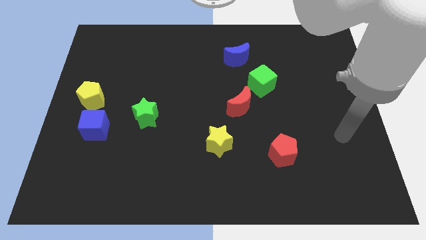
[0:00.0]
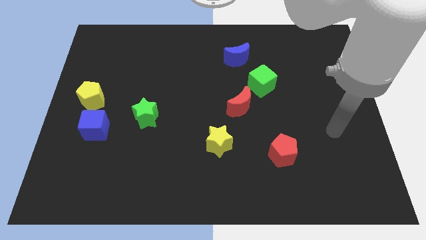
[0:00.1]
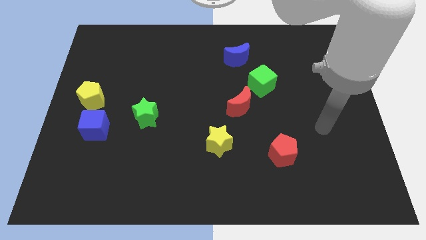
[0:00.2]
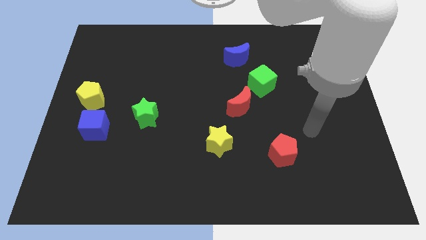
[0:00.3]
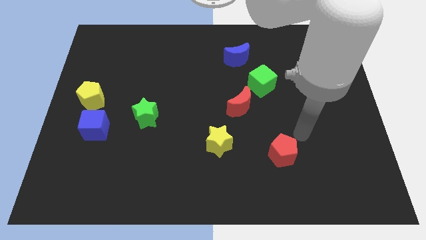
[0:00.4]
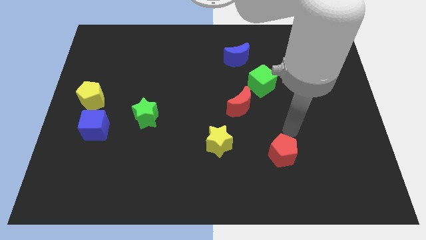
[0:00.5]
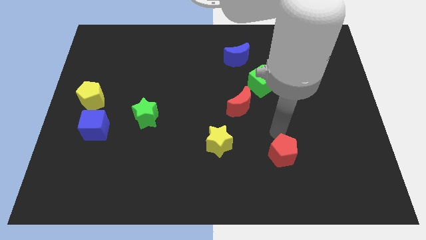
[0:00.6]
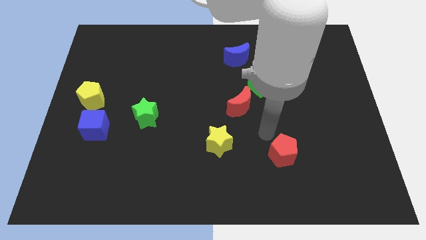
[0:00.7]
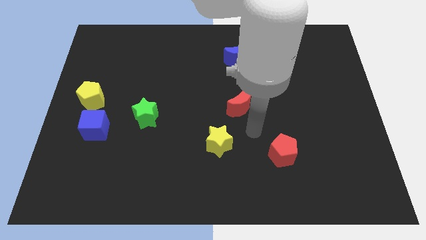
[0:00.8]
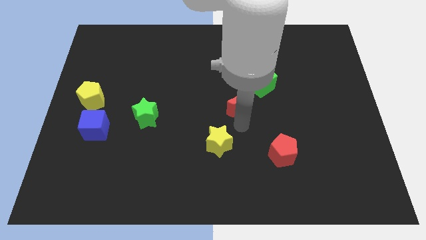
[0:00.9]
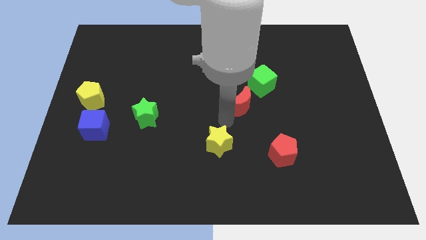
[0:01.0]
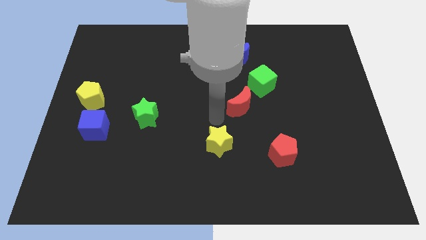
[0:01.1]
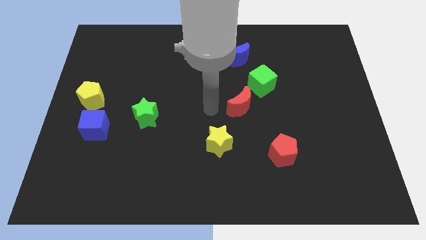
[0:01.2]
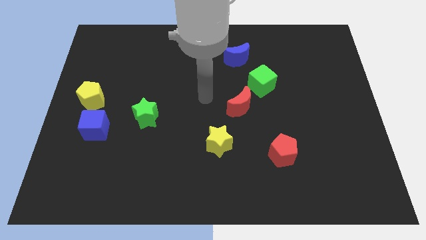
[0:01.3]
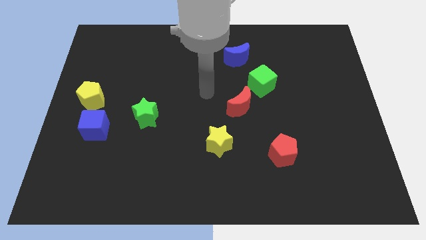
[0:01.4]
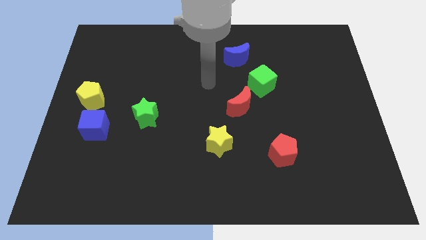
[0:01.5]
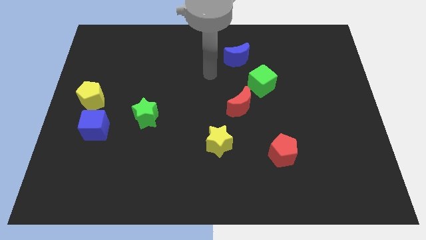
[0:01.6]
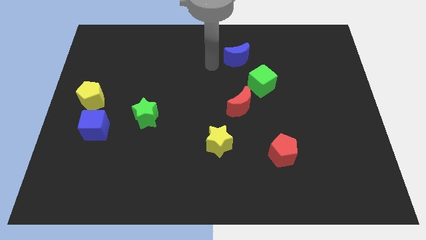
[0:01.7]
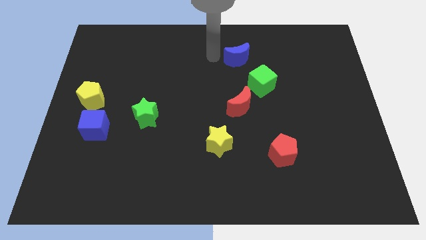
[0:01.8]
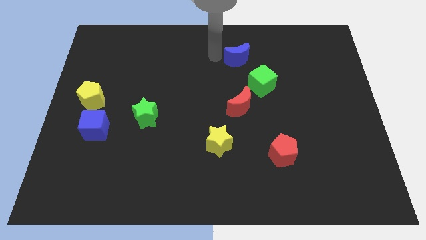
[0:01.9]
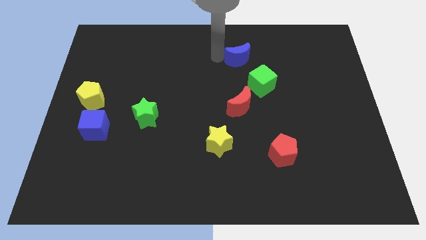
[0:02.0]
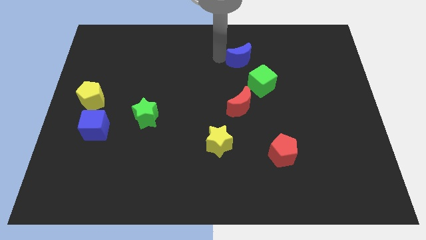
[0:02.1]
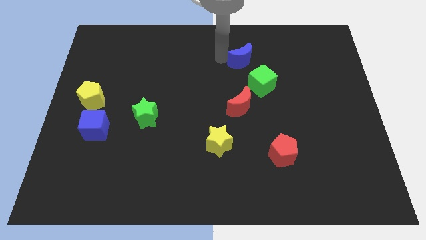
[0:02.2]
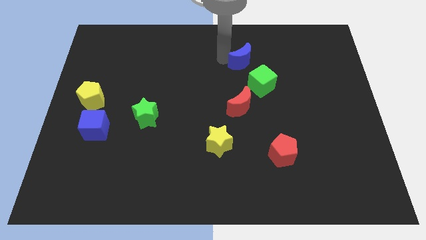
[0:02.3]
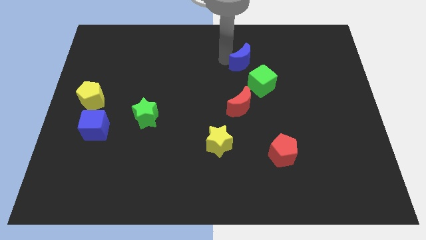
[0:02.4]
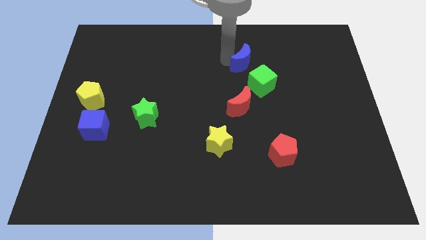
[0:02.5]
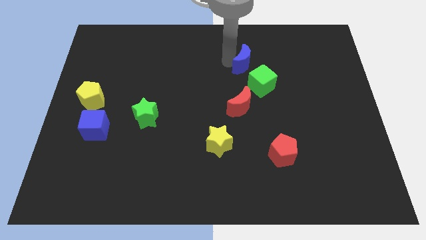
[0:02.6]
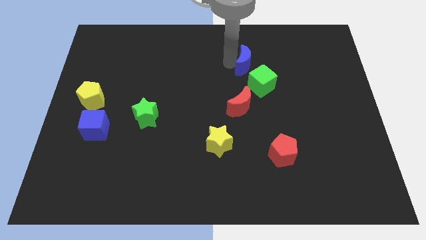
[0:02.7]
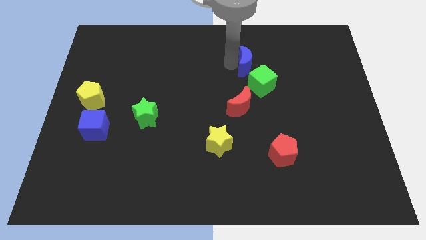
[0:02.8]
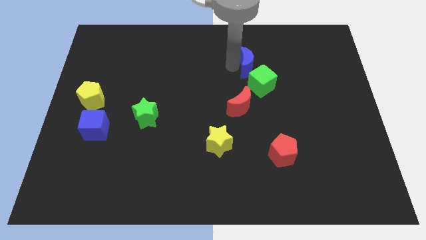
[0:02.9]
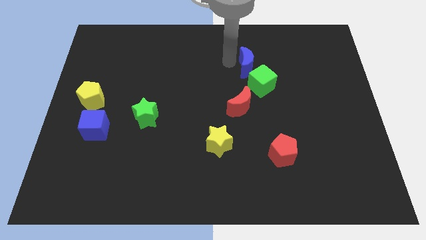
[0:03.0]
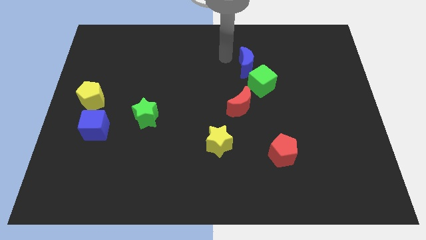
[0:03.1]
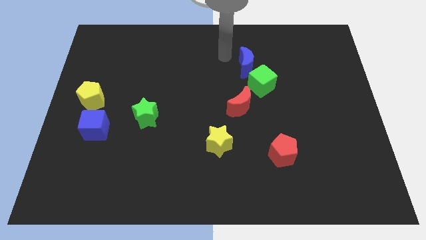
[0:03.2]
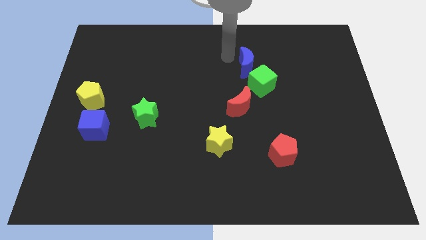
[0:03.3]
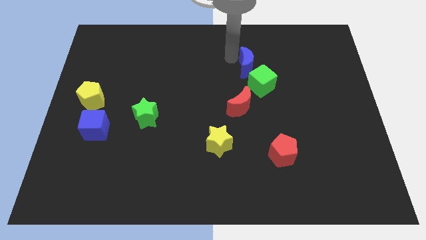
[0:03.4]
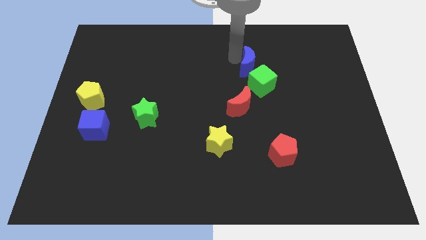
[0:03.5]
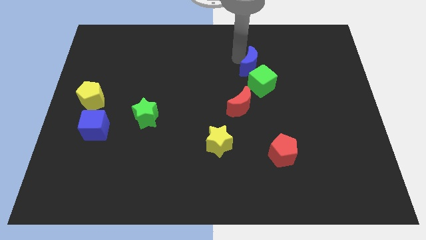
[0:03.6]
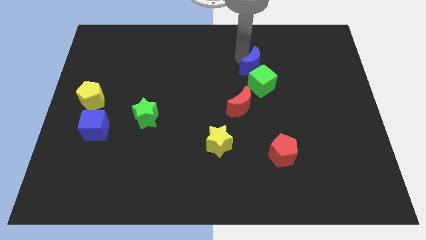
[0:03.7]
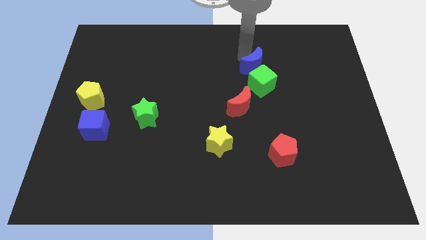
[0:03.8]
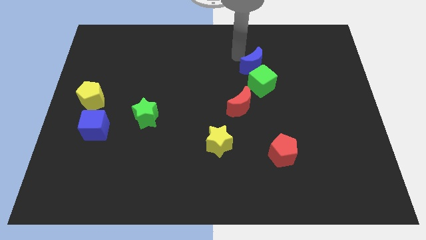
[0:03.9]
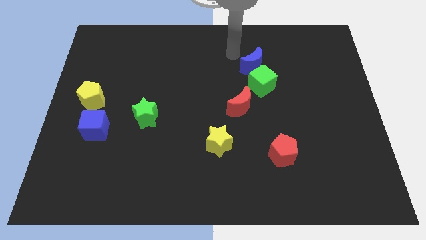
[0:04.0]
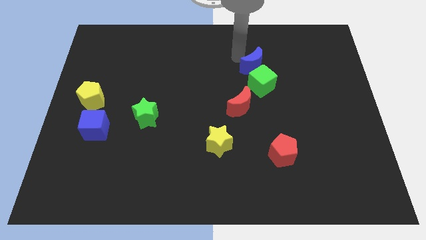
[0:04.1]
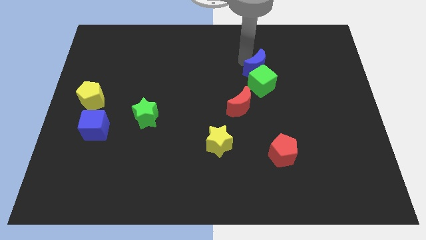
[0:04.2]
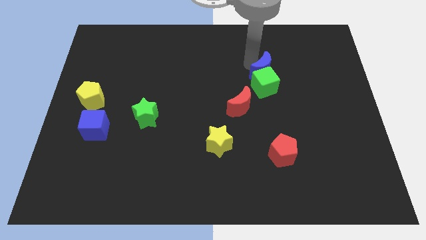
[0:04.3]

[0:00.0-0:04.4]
slightly move the blue moon downwards and then to the right

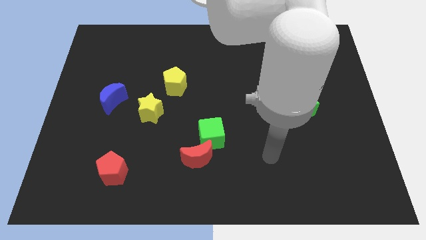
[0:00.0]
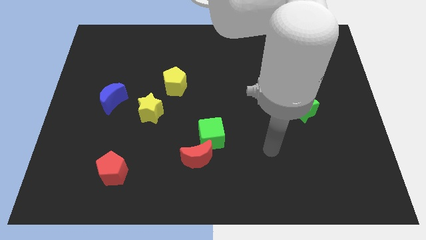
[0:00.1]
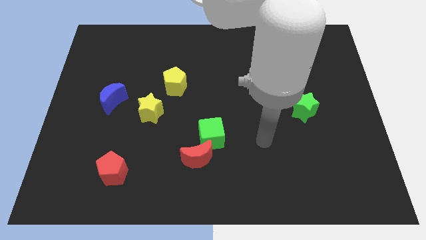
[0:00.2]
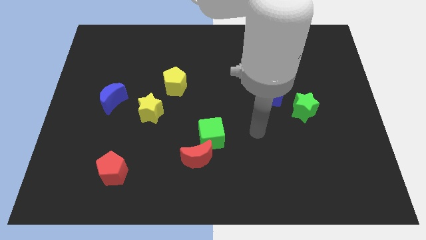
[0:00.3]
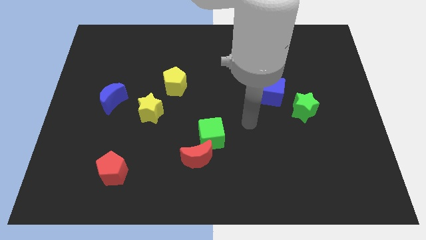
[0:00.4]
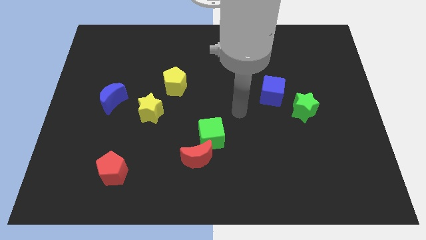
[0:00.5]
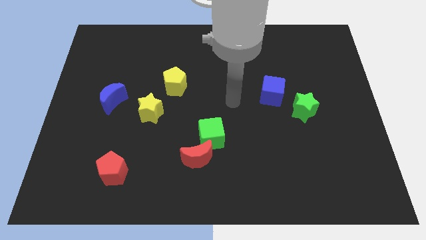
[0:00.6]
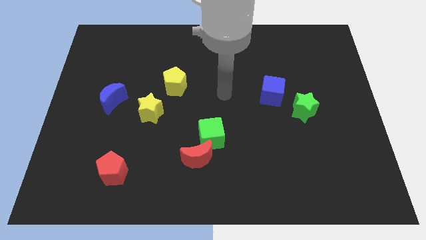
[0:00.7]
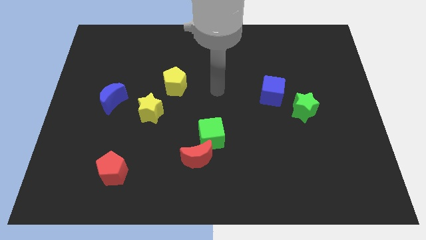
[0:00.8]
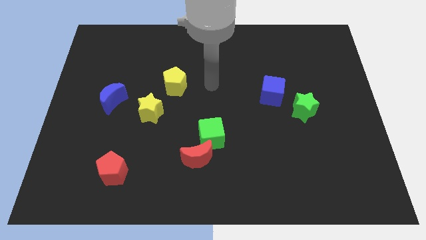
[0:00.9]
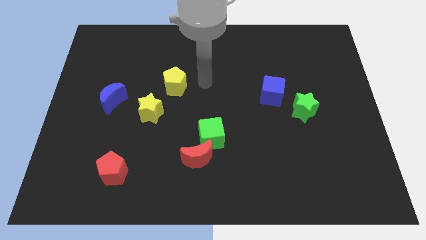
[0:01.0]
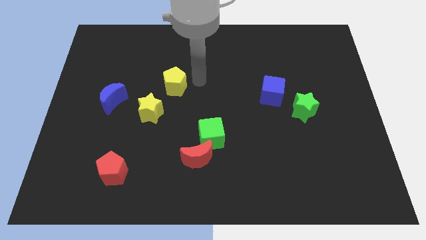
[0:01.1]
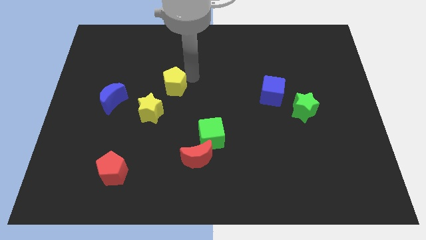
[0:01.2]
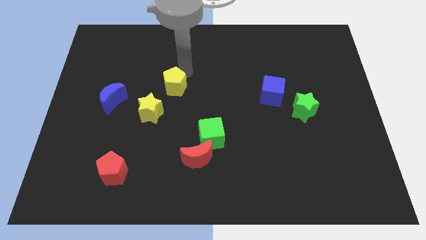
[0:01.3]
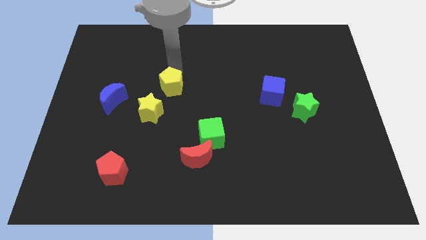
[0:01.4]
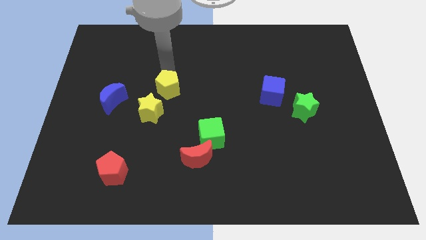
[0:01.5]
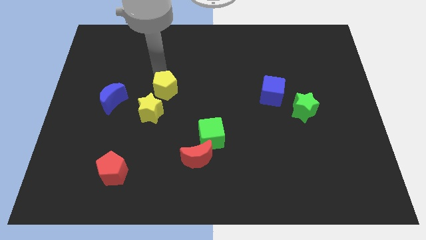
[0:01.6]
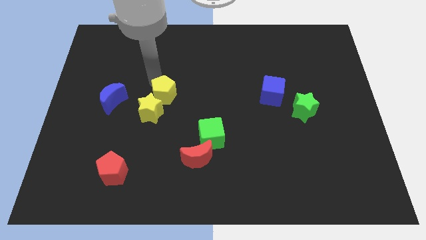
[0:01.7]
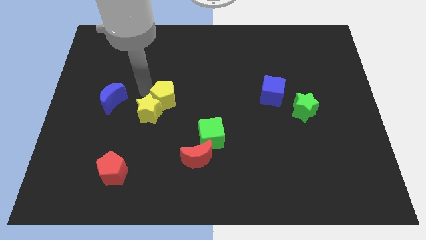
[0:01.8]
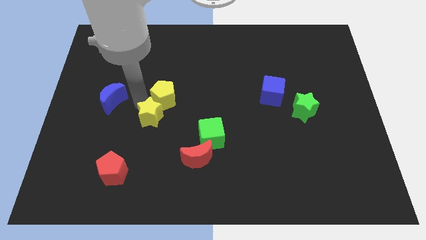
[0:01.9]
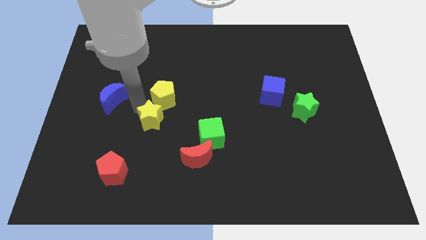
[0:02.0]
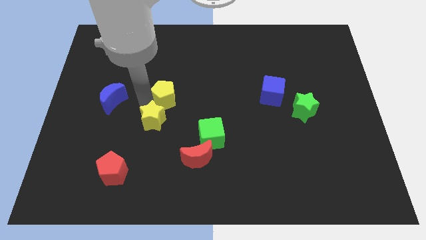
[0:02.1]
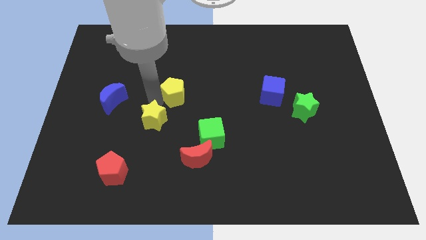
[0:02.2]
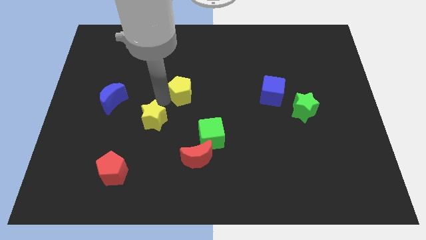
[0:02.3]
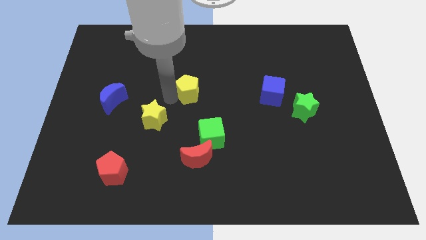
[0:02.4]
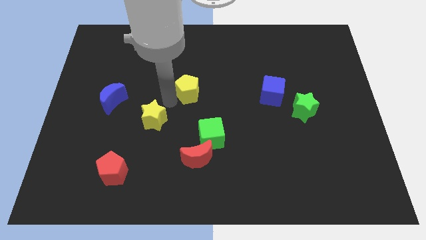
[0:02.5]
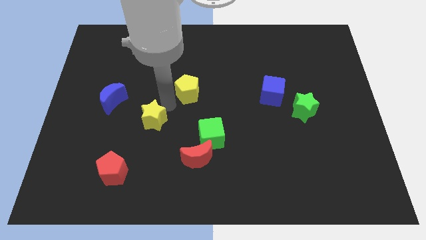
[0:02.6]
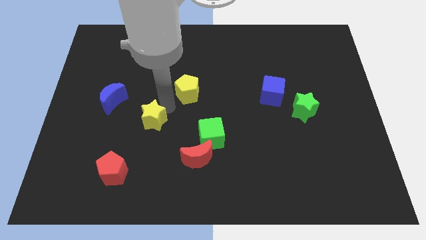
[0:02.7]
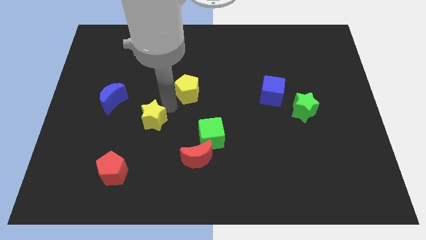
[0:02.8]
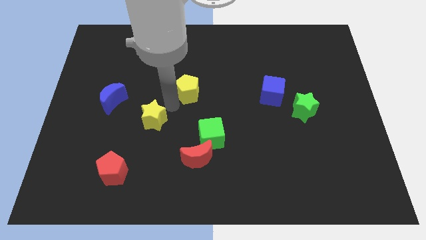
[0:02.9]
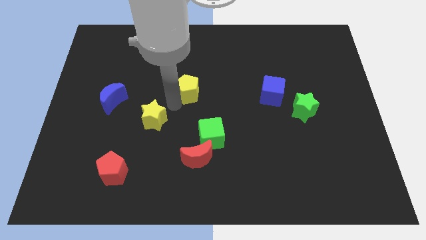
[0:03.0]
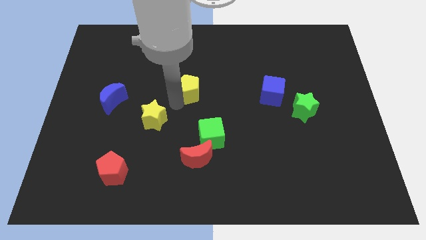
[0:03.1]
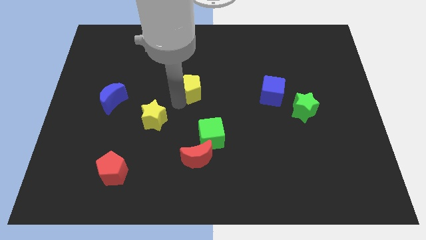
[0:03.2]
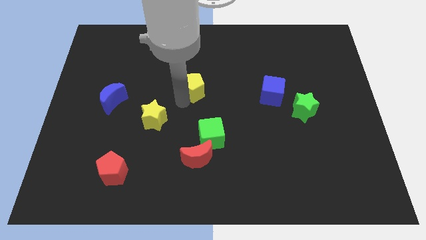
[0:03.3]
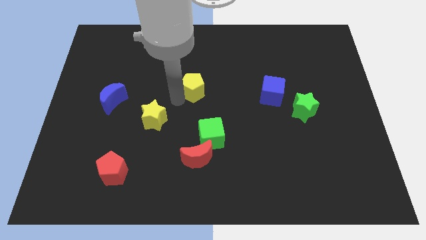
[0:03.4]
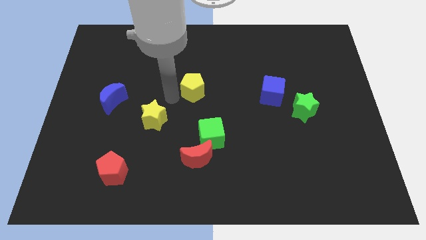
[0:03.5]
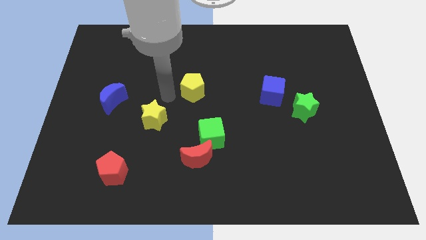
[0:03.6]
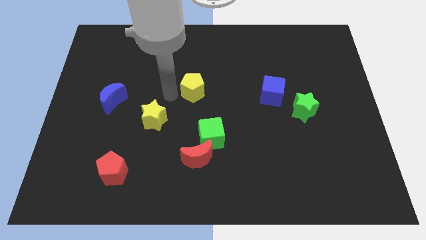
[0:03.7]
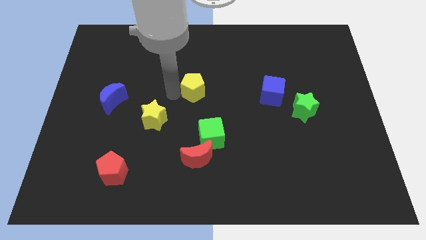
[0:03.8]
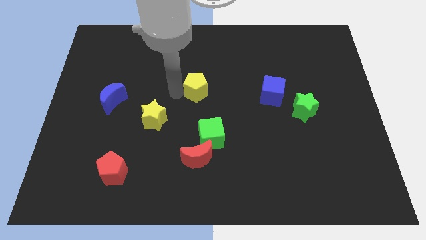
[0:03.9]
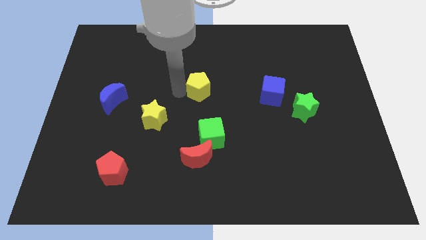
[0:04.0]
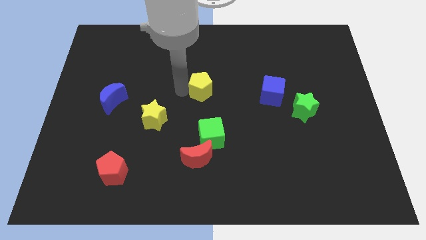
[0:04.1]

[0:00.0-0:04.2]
move the yellow pentagon slightly to the right
